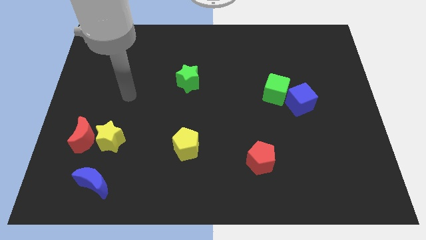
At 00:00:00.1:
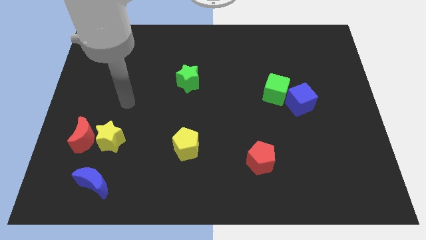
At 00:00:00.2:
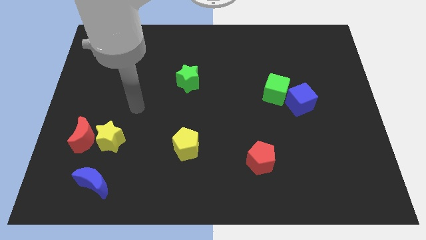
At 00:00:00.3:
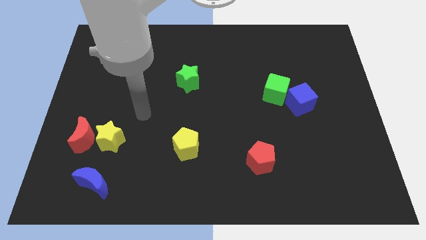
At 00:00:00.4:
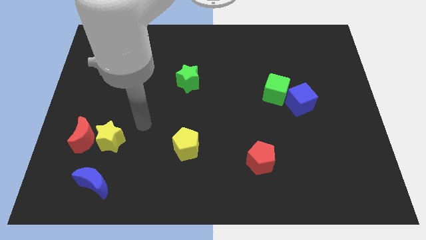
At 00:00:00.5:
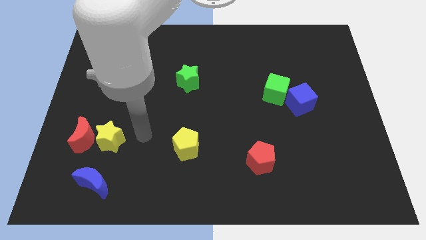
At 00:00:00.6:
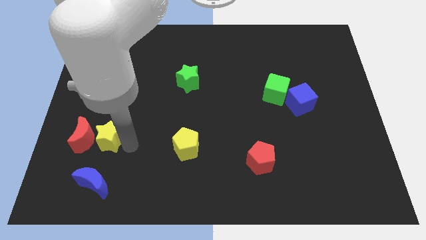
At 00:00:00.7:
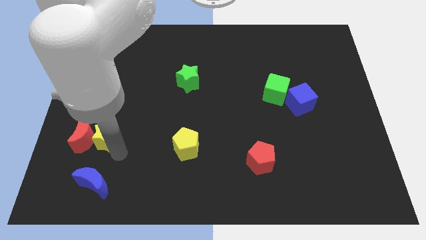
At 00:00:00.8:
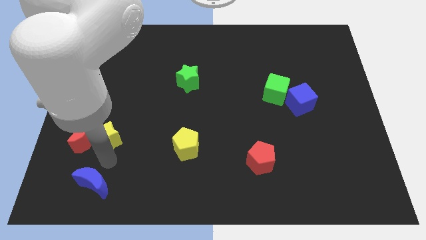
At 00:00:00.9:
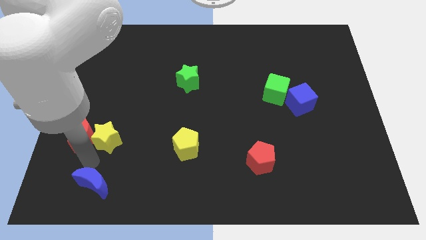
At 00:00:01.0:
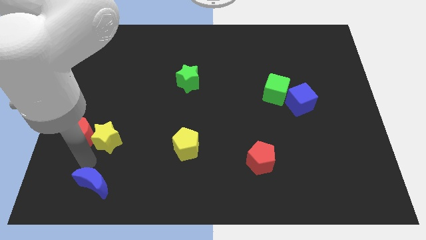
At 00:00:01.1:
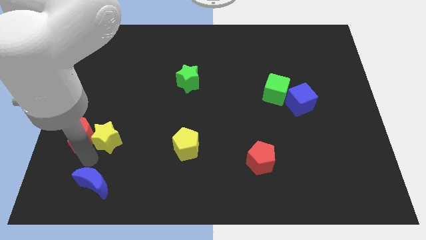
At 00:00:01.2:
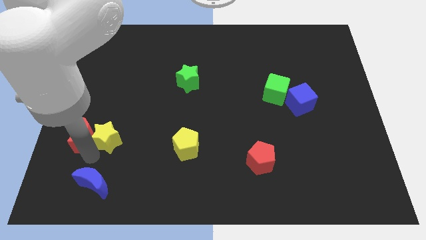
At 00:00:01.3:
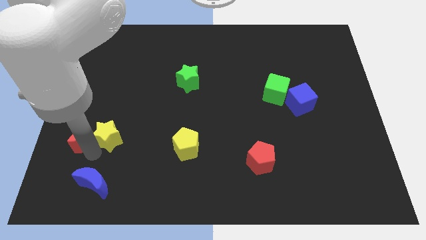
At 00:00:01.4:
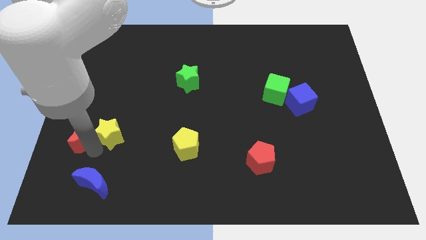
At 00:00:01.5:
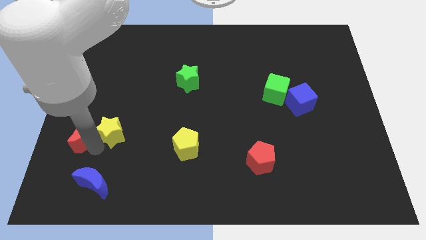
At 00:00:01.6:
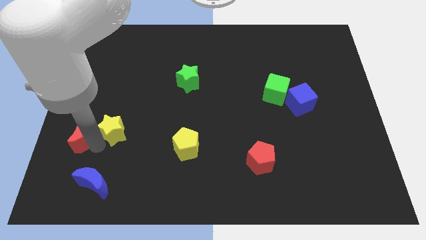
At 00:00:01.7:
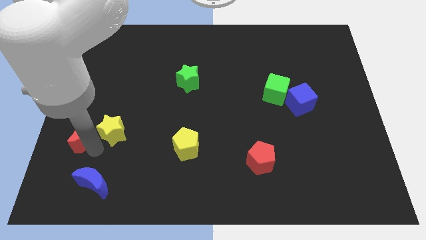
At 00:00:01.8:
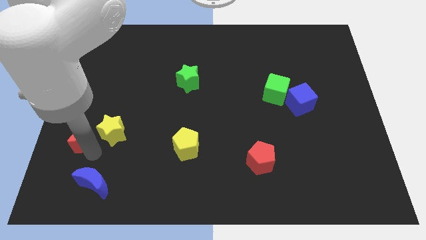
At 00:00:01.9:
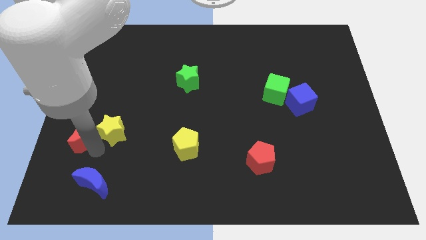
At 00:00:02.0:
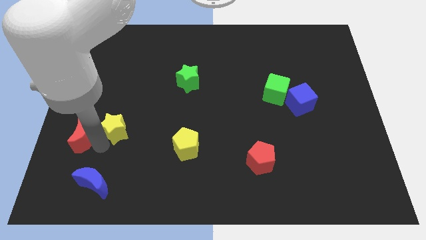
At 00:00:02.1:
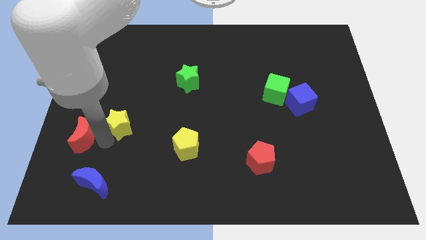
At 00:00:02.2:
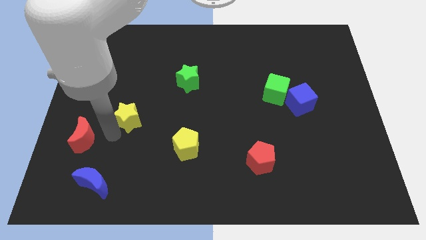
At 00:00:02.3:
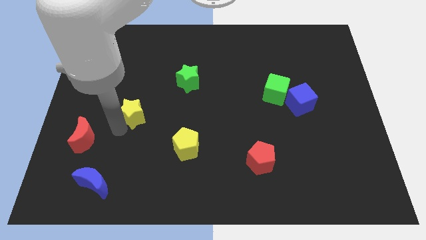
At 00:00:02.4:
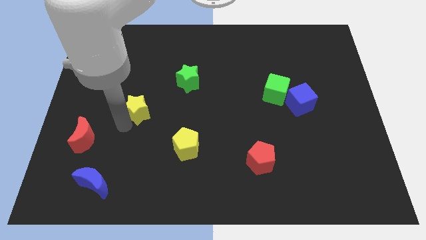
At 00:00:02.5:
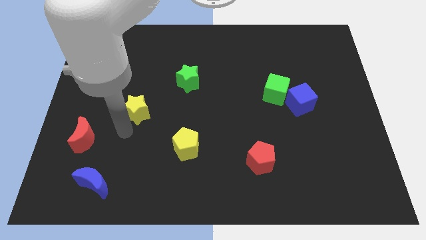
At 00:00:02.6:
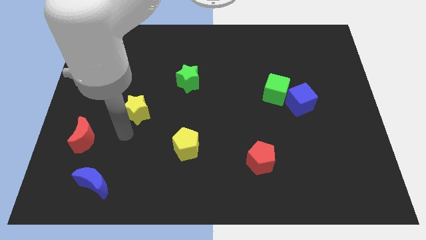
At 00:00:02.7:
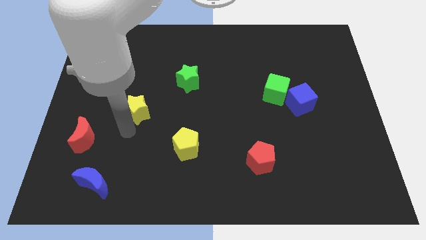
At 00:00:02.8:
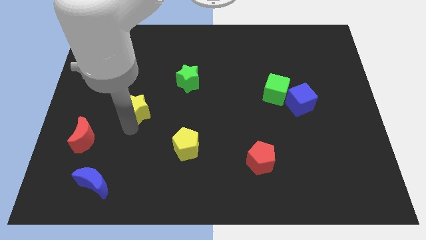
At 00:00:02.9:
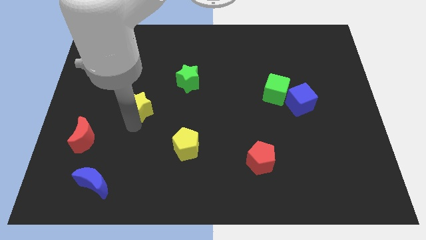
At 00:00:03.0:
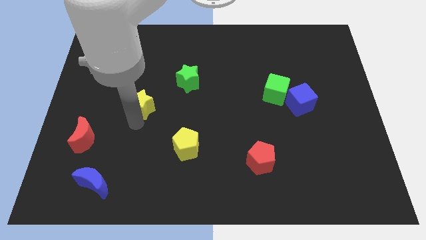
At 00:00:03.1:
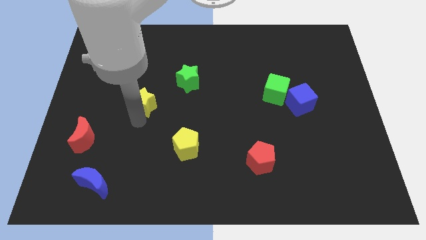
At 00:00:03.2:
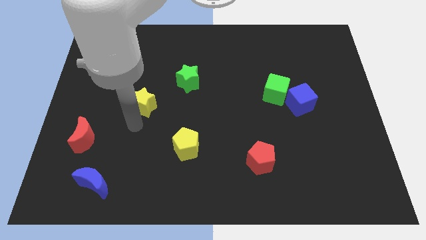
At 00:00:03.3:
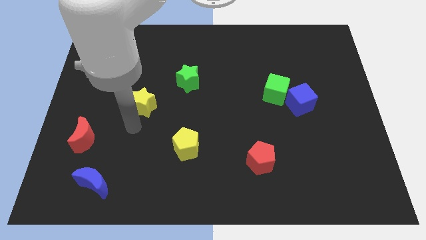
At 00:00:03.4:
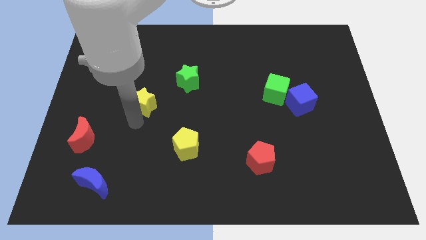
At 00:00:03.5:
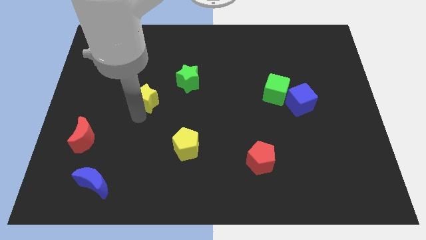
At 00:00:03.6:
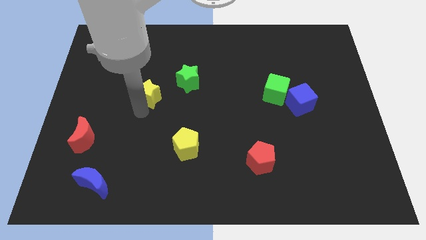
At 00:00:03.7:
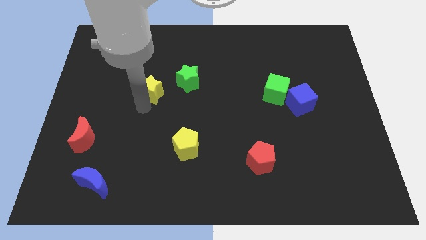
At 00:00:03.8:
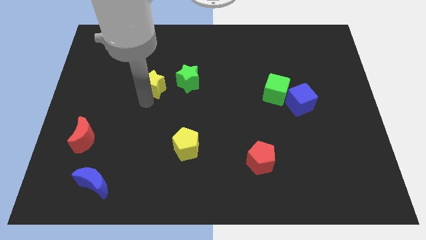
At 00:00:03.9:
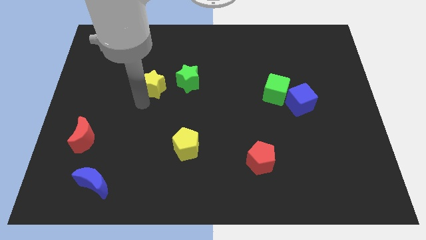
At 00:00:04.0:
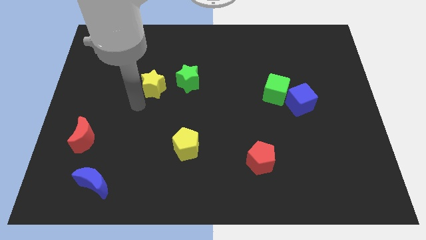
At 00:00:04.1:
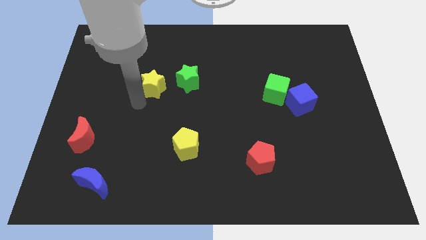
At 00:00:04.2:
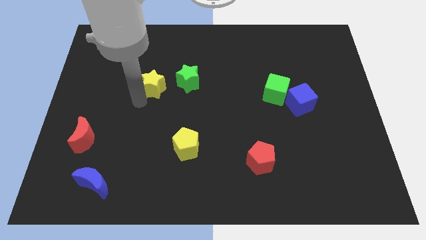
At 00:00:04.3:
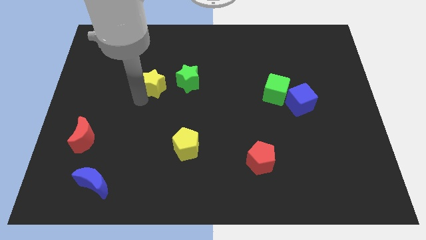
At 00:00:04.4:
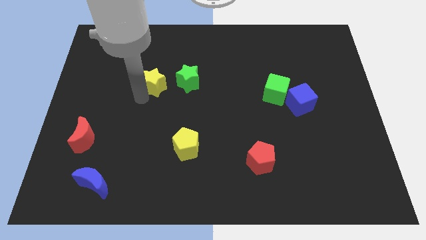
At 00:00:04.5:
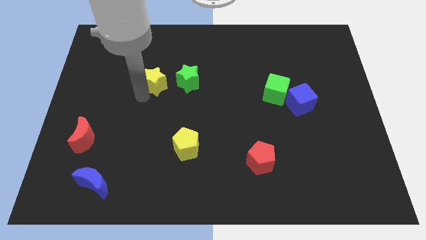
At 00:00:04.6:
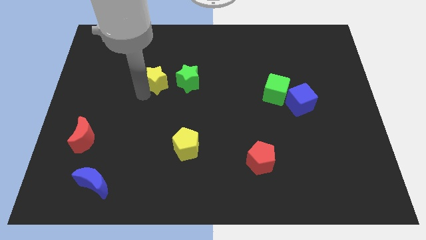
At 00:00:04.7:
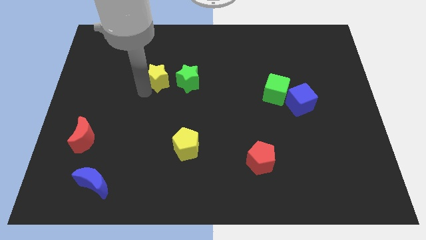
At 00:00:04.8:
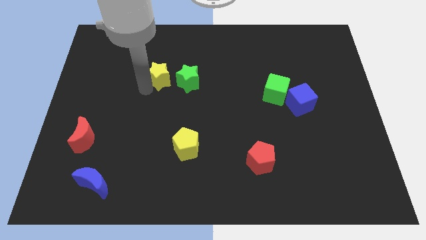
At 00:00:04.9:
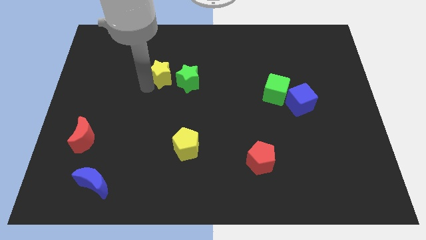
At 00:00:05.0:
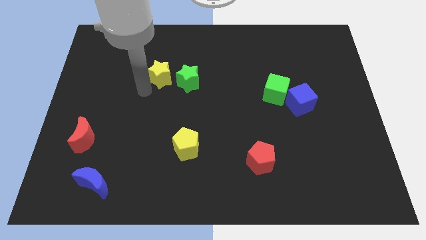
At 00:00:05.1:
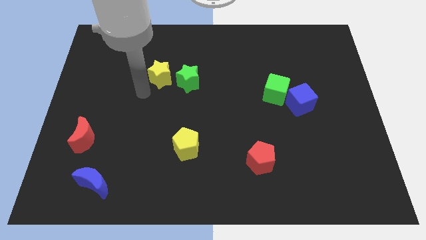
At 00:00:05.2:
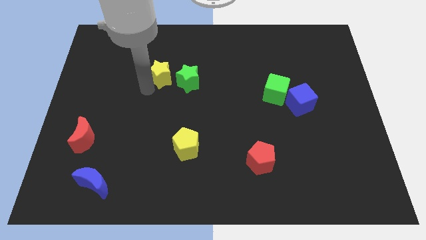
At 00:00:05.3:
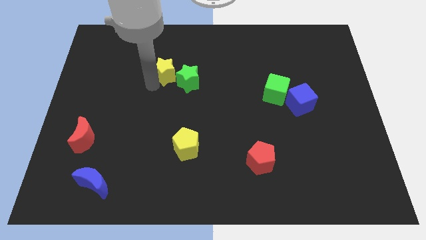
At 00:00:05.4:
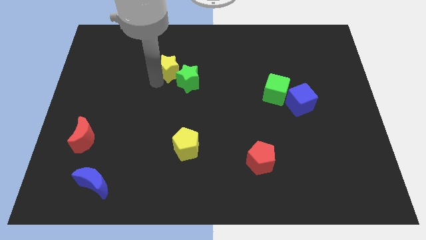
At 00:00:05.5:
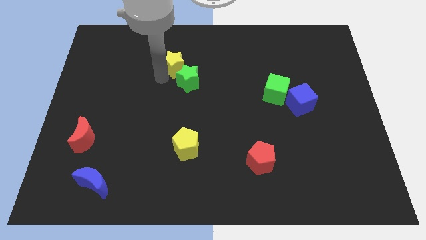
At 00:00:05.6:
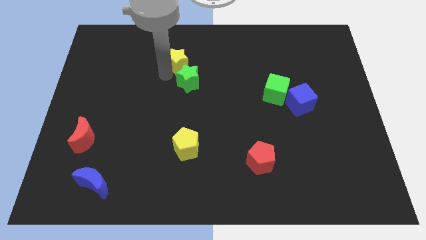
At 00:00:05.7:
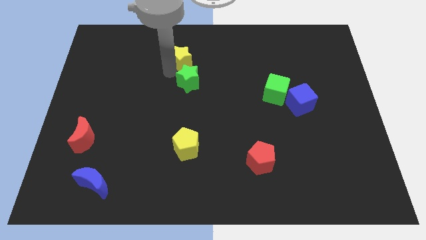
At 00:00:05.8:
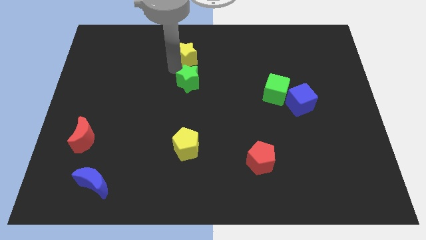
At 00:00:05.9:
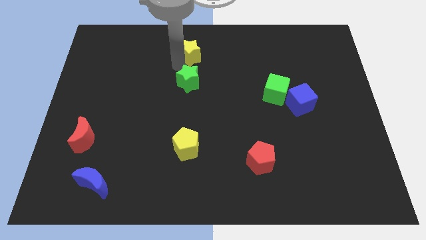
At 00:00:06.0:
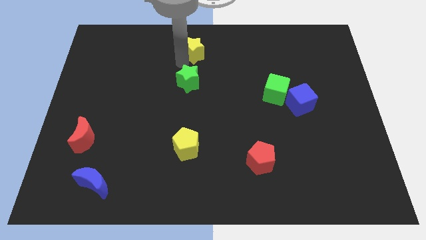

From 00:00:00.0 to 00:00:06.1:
move the yellow star to the top

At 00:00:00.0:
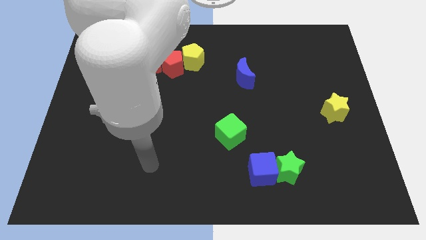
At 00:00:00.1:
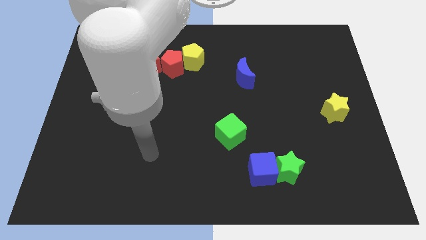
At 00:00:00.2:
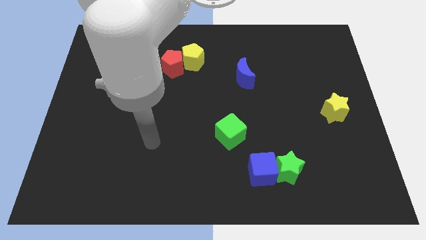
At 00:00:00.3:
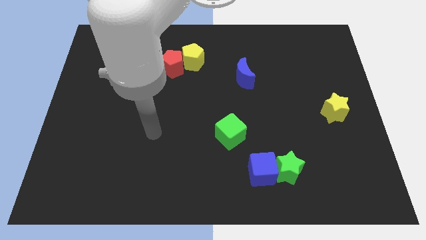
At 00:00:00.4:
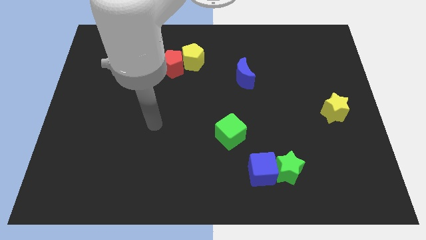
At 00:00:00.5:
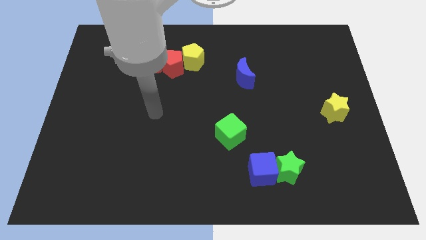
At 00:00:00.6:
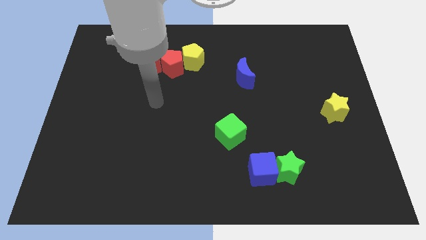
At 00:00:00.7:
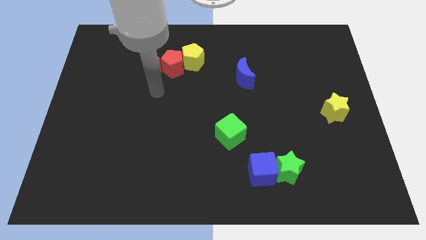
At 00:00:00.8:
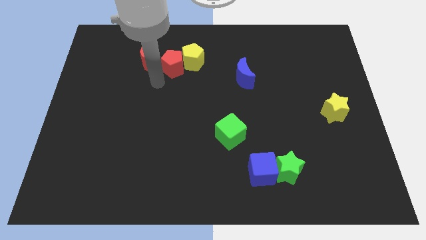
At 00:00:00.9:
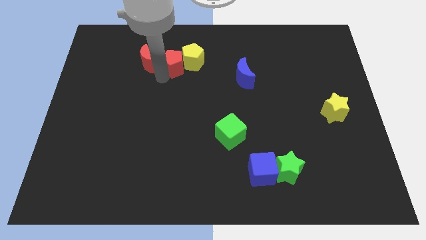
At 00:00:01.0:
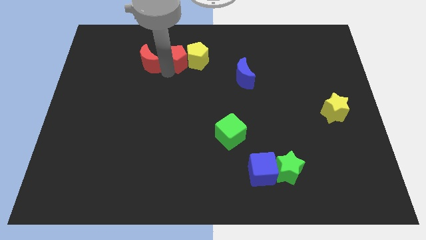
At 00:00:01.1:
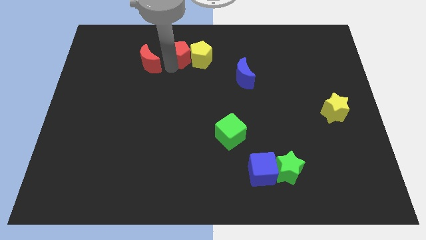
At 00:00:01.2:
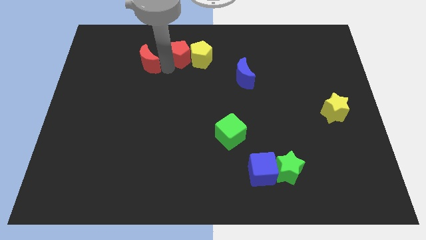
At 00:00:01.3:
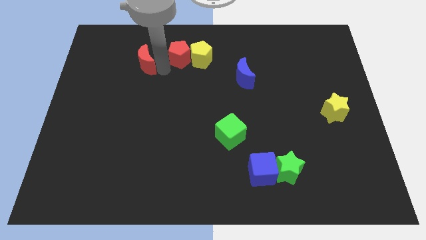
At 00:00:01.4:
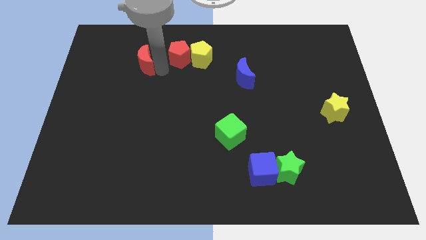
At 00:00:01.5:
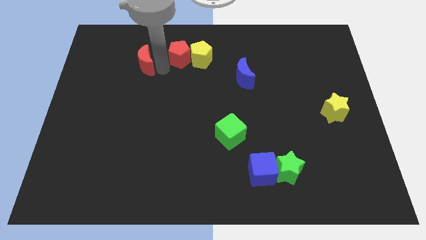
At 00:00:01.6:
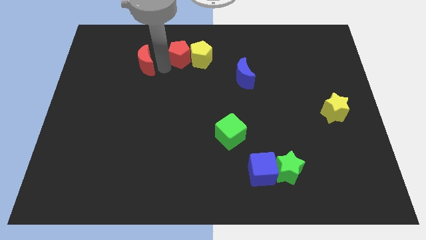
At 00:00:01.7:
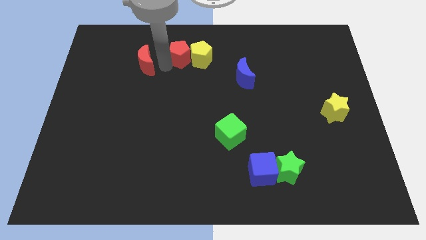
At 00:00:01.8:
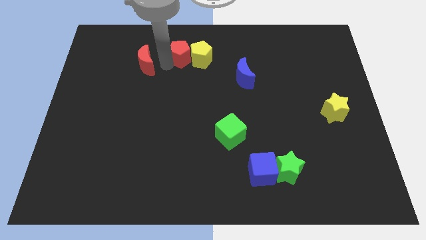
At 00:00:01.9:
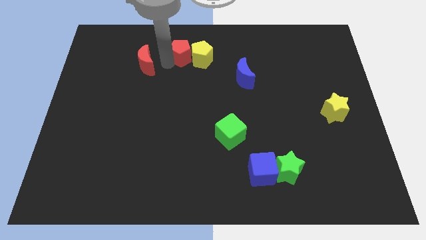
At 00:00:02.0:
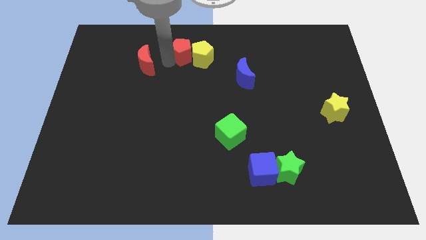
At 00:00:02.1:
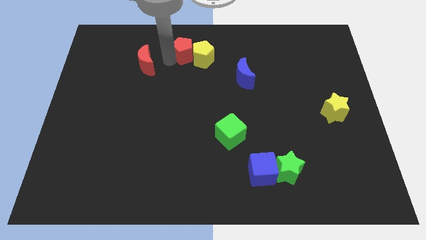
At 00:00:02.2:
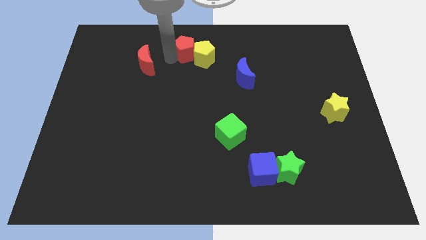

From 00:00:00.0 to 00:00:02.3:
move the red pentagon to the top
